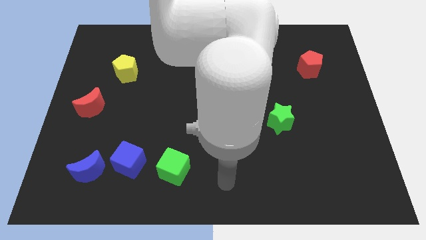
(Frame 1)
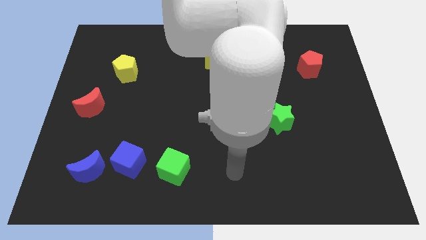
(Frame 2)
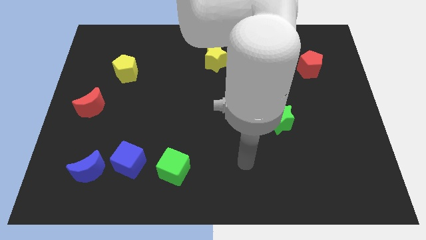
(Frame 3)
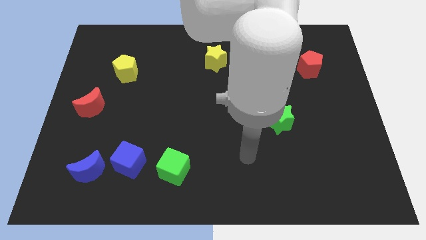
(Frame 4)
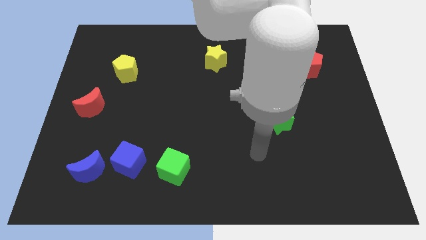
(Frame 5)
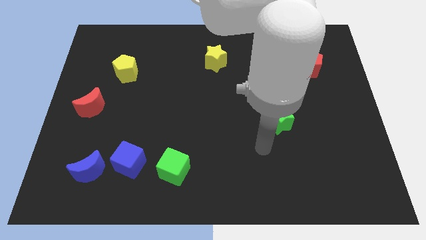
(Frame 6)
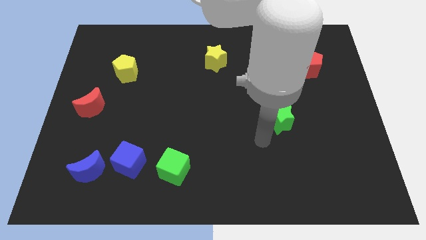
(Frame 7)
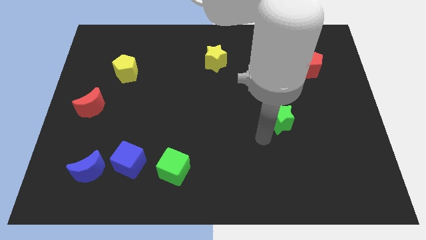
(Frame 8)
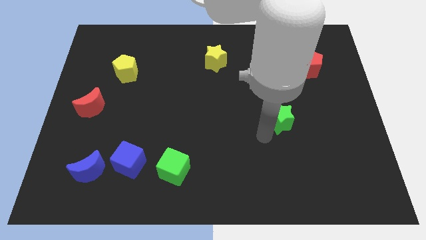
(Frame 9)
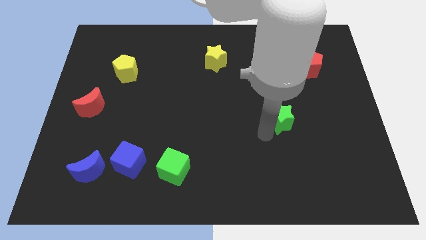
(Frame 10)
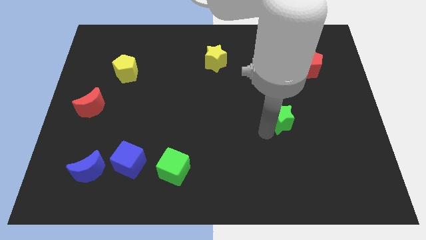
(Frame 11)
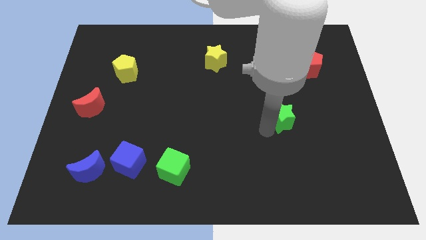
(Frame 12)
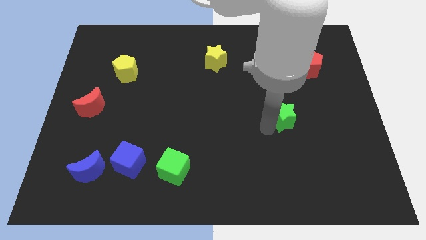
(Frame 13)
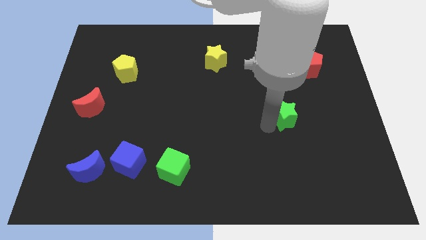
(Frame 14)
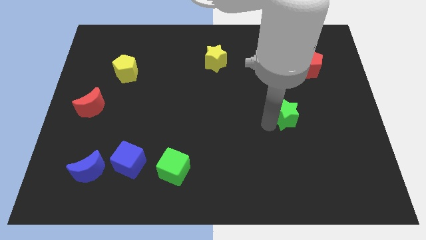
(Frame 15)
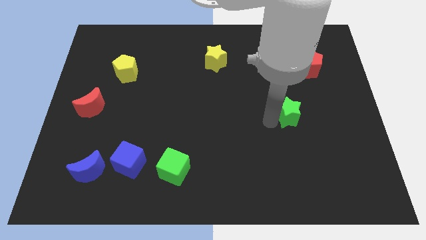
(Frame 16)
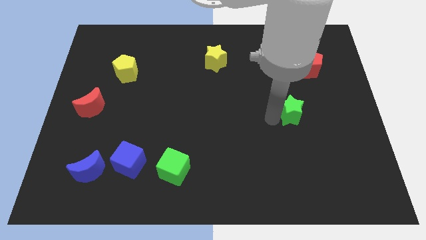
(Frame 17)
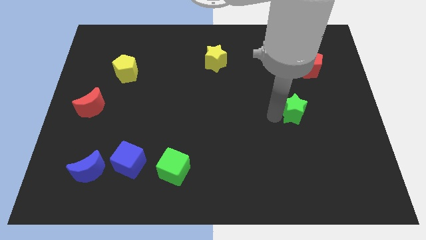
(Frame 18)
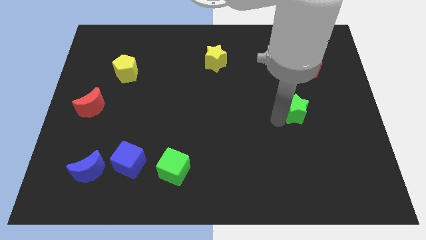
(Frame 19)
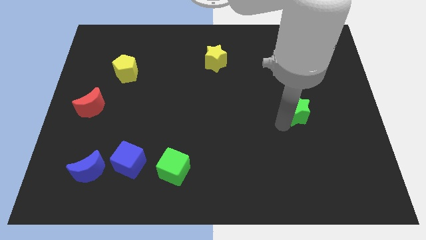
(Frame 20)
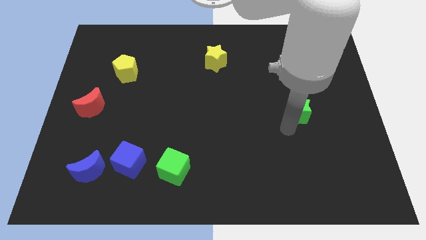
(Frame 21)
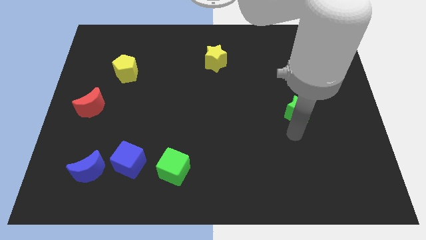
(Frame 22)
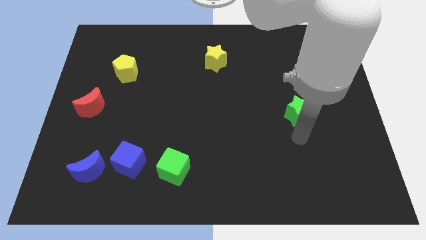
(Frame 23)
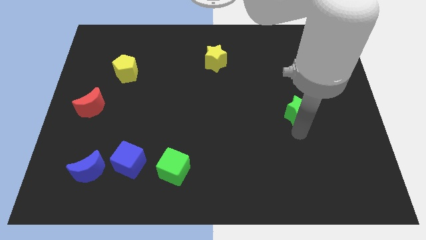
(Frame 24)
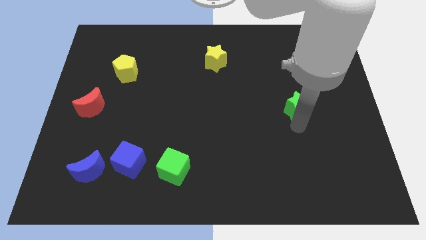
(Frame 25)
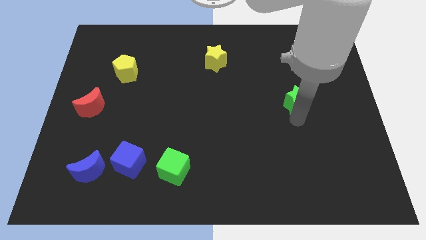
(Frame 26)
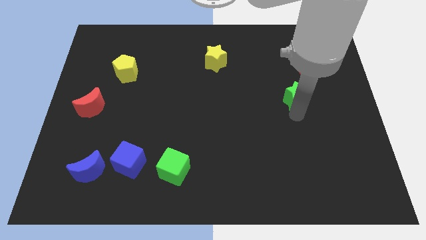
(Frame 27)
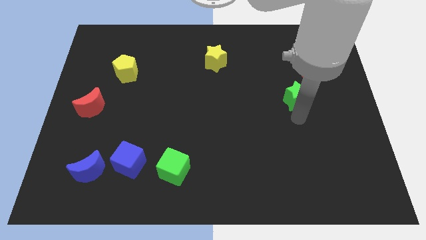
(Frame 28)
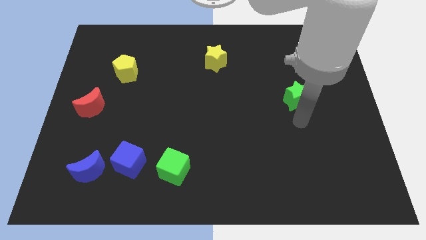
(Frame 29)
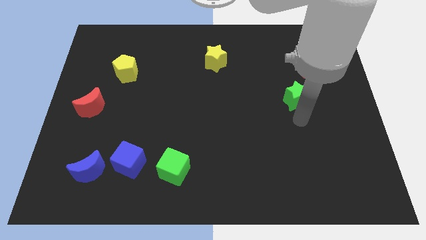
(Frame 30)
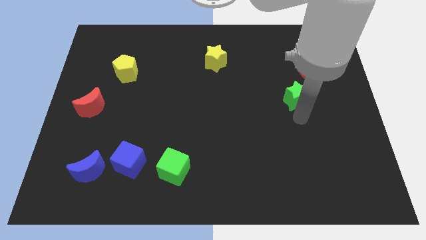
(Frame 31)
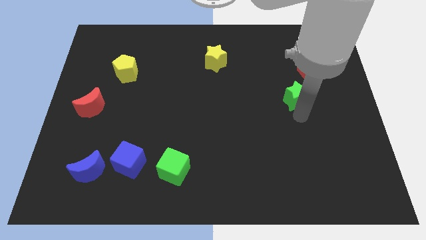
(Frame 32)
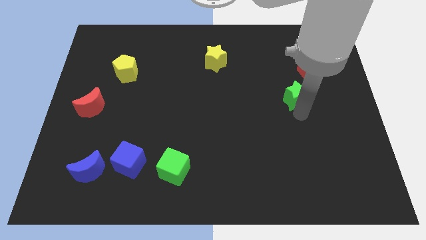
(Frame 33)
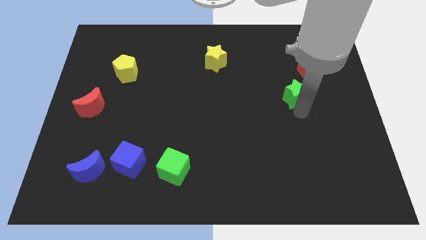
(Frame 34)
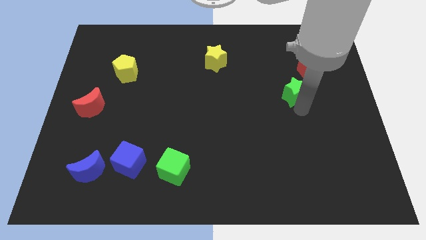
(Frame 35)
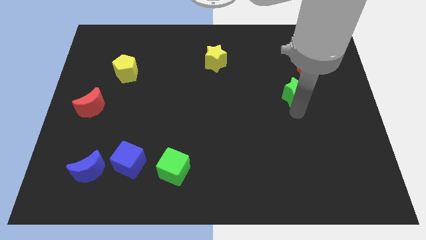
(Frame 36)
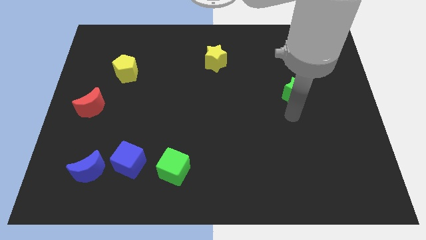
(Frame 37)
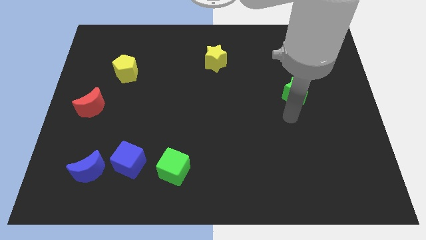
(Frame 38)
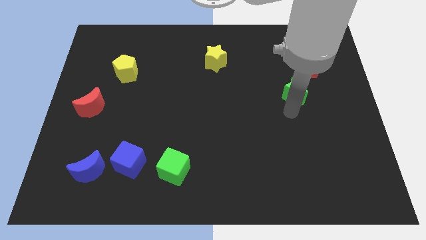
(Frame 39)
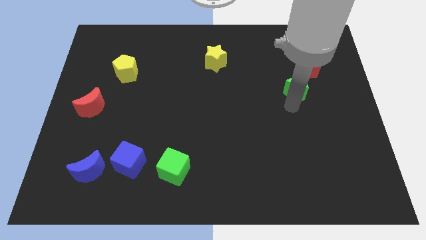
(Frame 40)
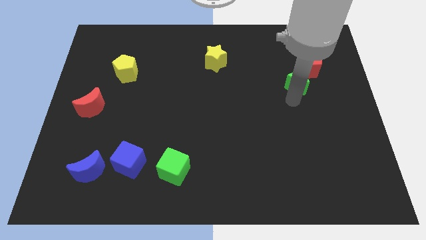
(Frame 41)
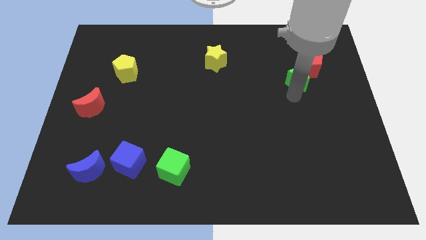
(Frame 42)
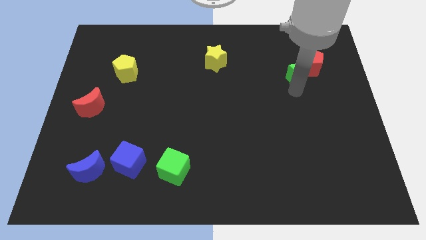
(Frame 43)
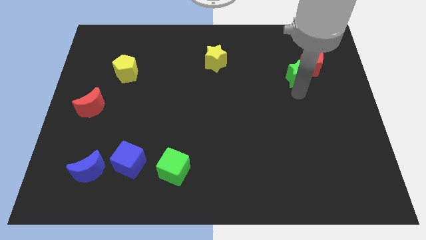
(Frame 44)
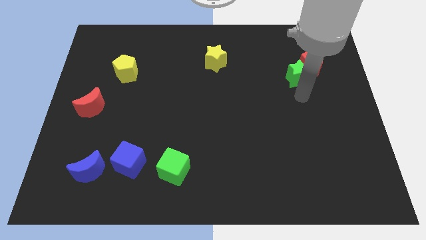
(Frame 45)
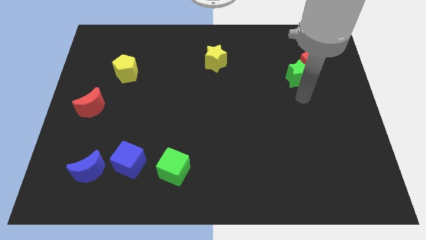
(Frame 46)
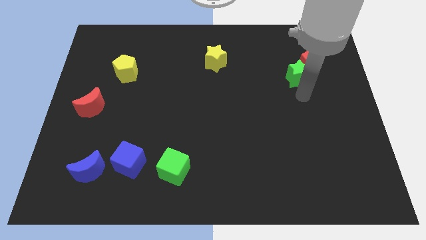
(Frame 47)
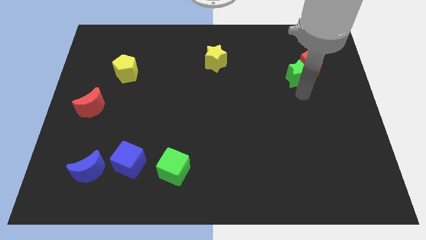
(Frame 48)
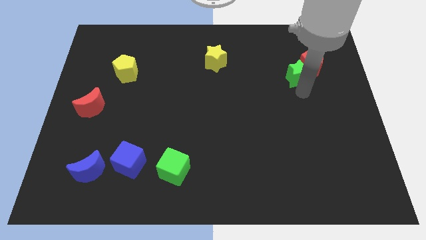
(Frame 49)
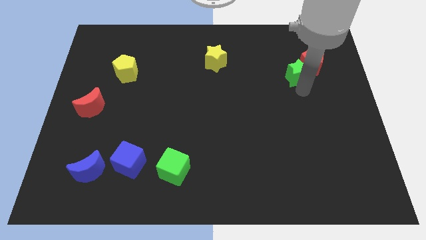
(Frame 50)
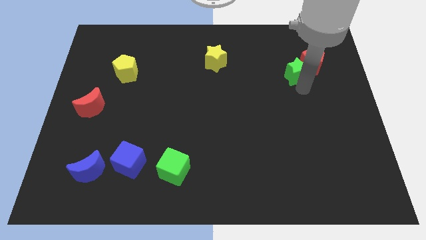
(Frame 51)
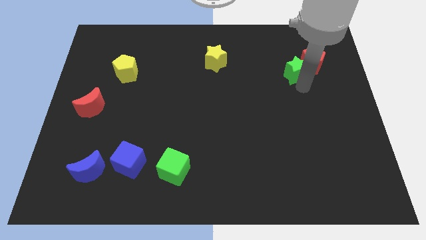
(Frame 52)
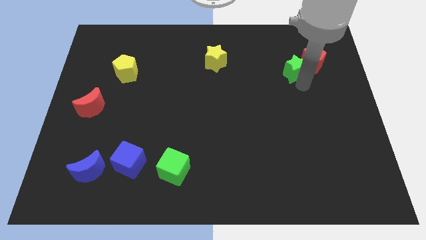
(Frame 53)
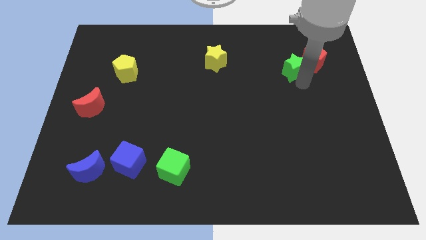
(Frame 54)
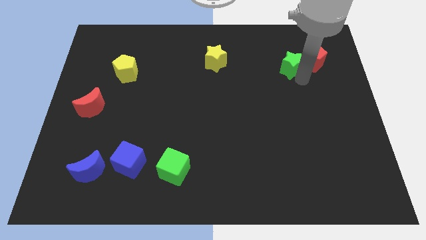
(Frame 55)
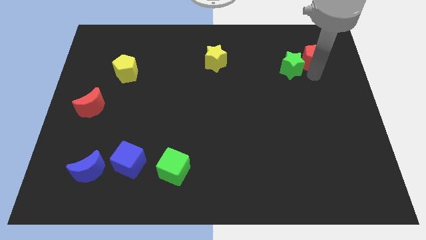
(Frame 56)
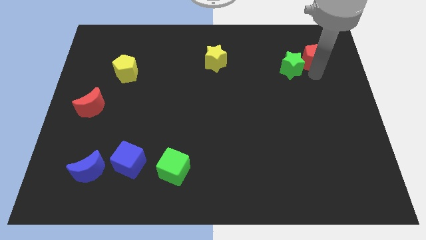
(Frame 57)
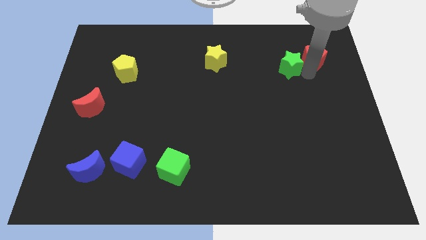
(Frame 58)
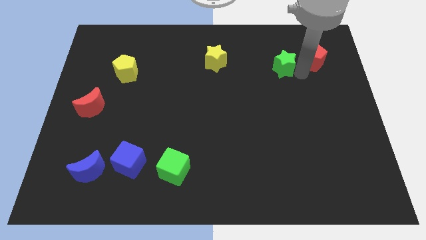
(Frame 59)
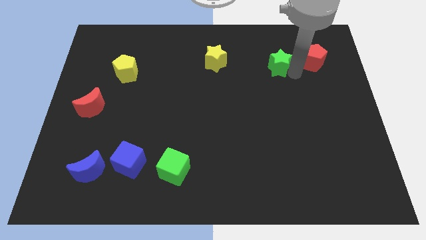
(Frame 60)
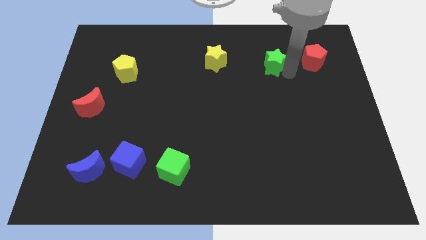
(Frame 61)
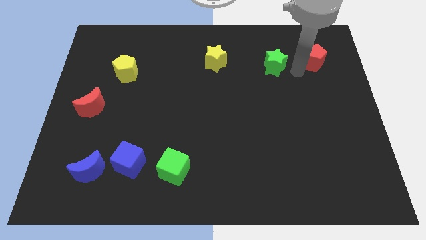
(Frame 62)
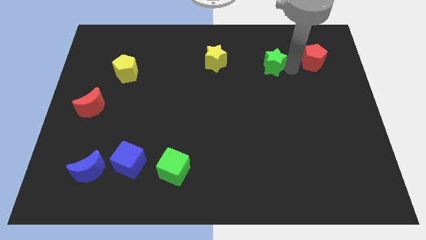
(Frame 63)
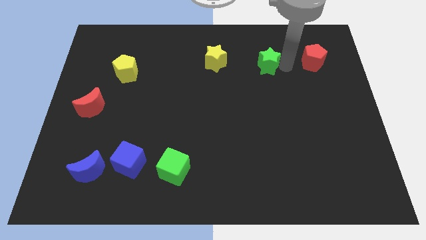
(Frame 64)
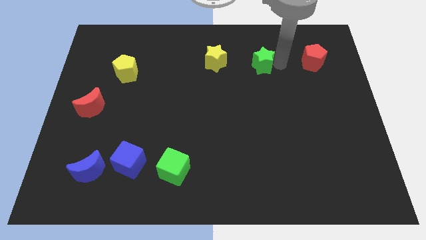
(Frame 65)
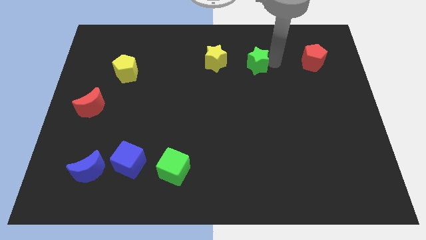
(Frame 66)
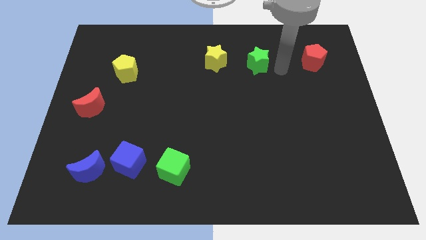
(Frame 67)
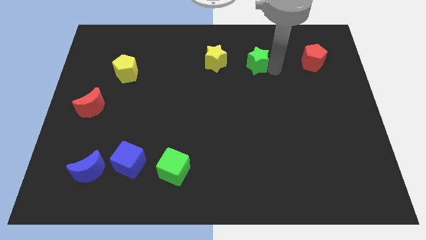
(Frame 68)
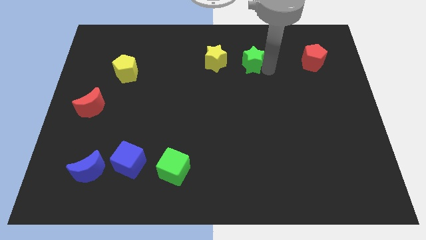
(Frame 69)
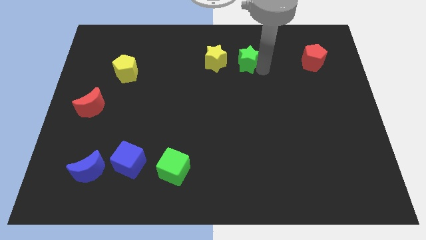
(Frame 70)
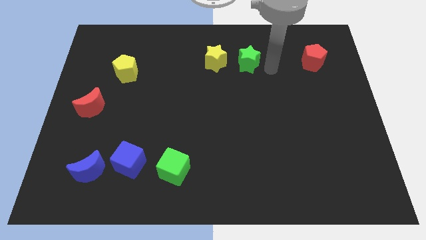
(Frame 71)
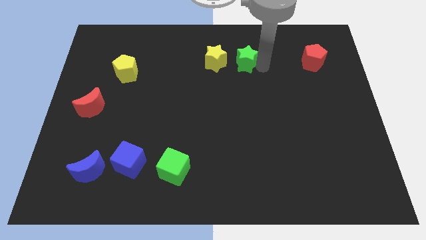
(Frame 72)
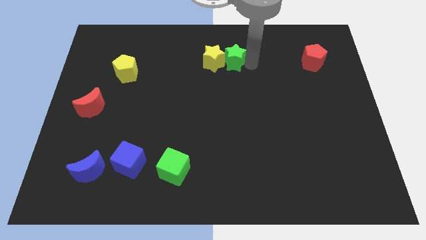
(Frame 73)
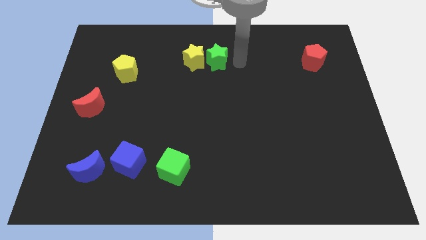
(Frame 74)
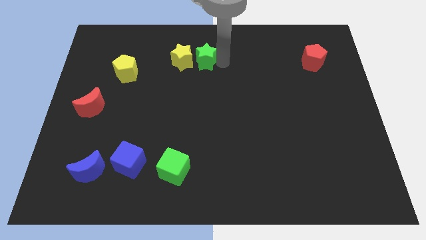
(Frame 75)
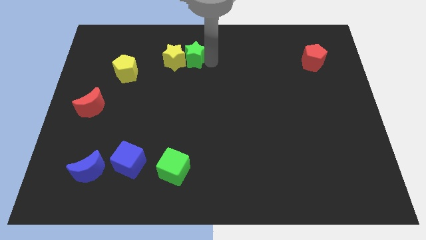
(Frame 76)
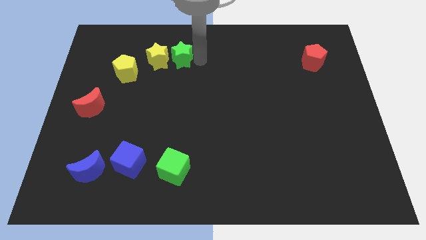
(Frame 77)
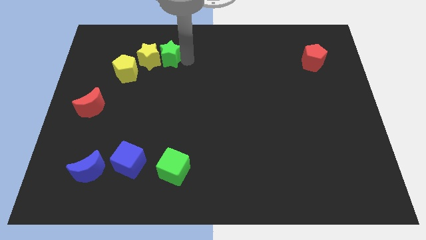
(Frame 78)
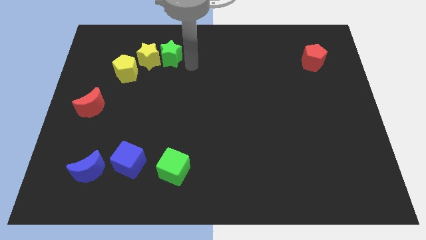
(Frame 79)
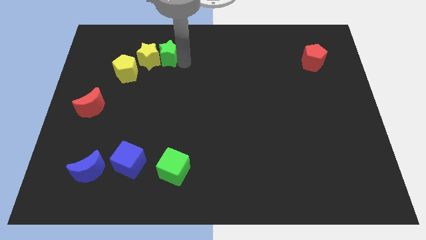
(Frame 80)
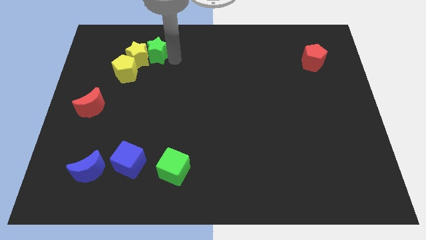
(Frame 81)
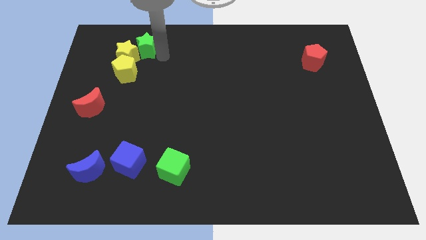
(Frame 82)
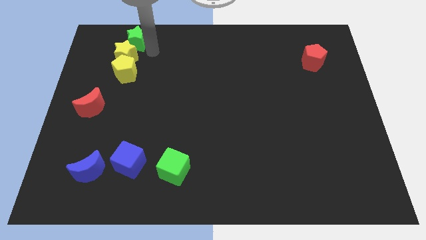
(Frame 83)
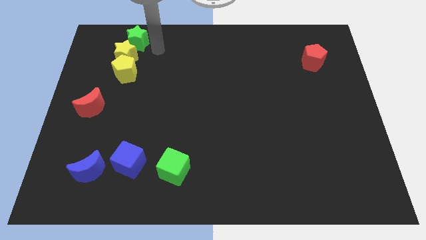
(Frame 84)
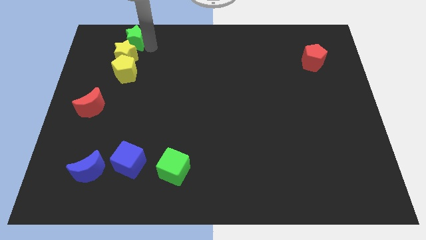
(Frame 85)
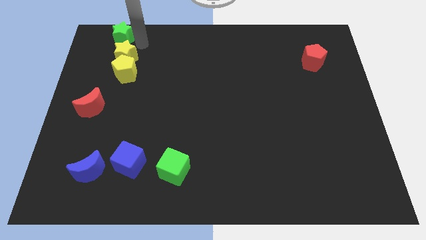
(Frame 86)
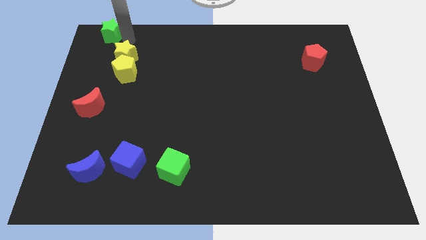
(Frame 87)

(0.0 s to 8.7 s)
move the green star to the top left of the board
